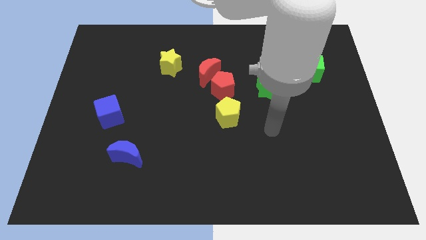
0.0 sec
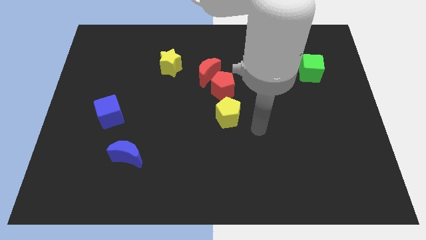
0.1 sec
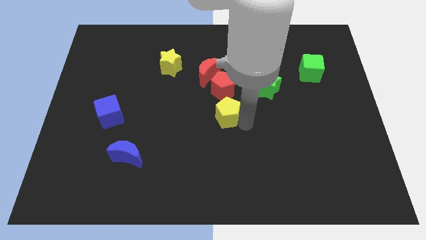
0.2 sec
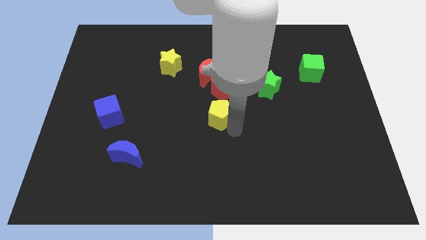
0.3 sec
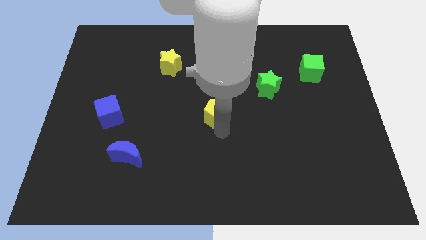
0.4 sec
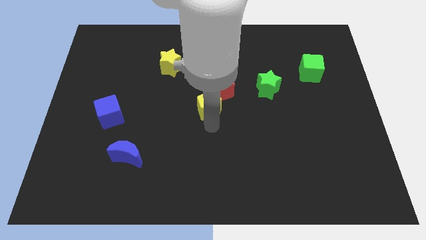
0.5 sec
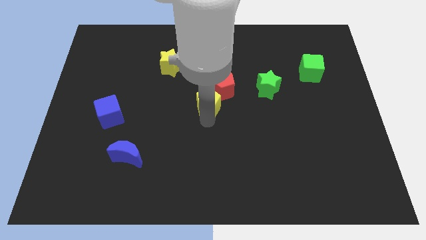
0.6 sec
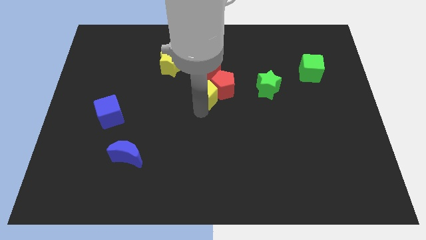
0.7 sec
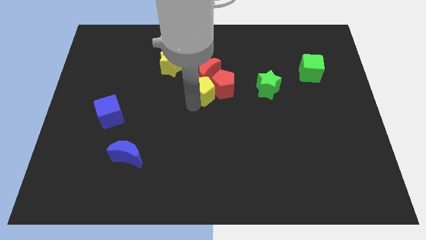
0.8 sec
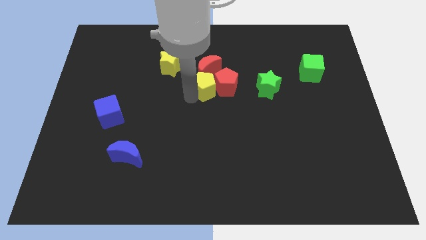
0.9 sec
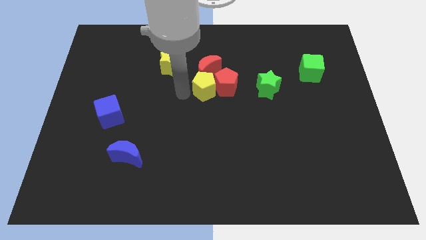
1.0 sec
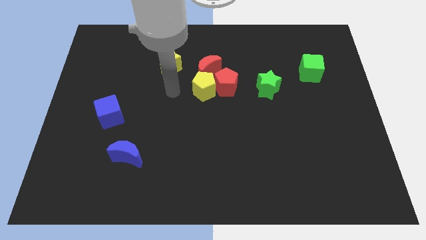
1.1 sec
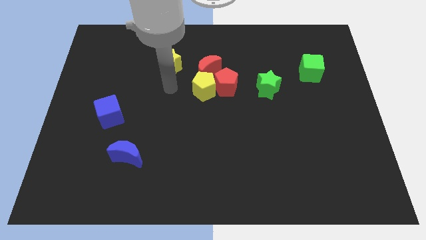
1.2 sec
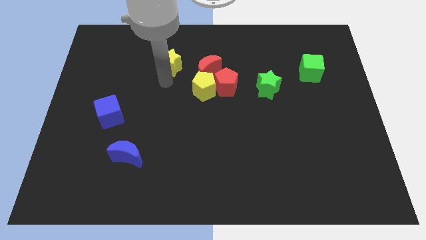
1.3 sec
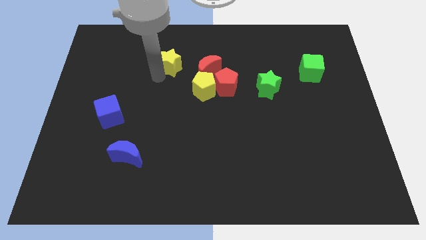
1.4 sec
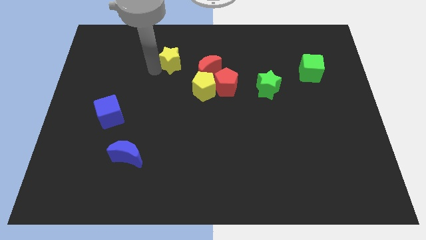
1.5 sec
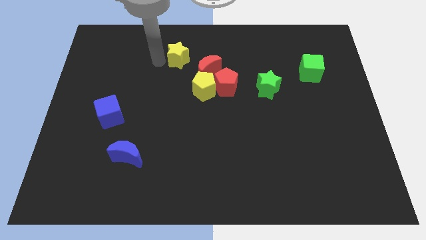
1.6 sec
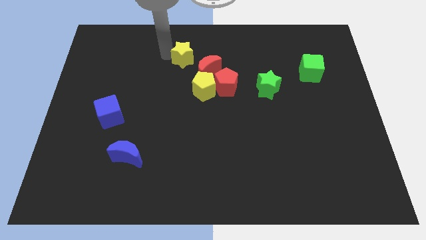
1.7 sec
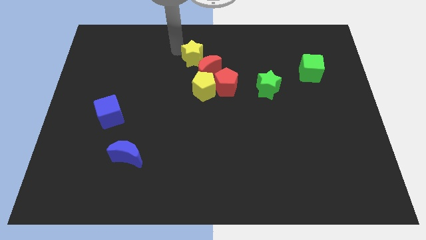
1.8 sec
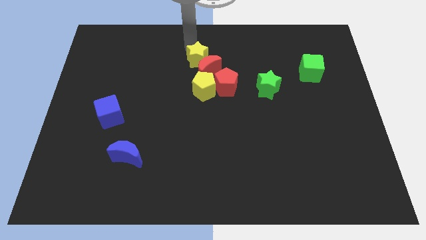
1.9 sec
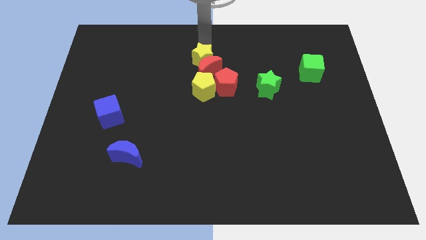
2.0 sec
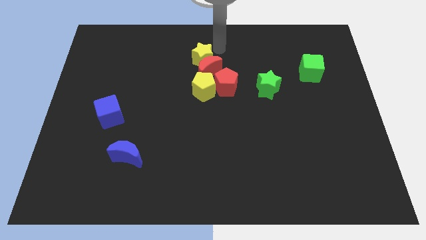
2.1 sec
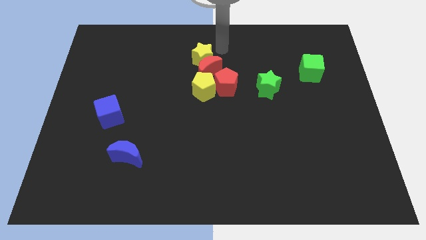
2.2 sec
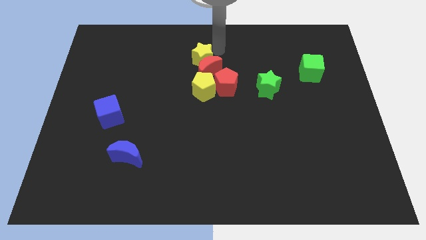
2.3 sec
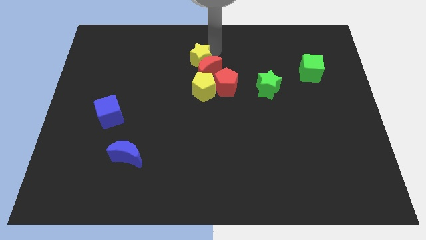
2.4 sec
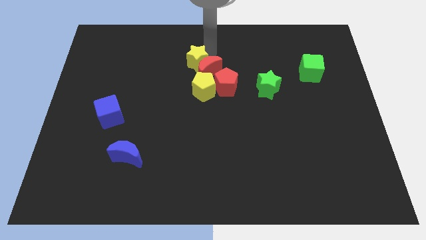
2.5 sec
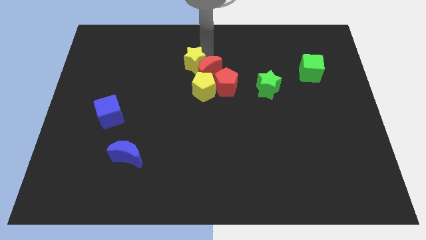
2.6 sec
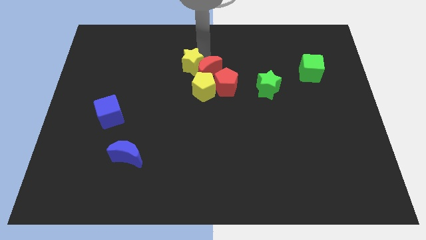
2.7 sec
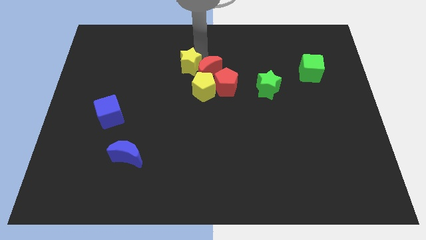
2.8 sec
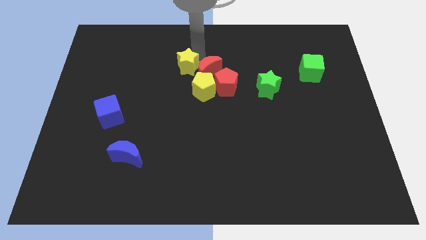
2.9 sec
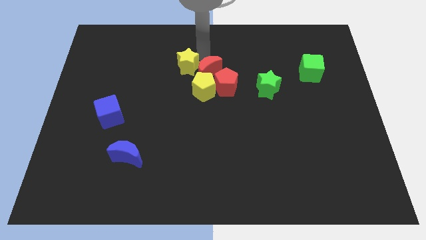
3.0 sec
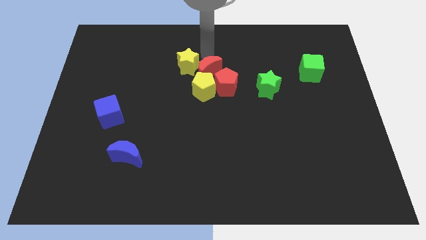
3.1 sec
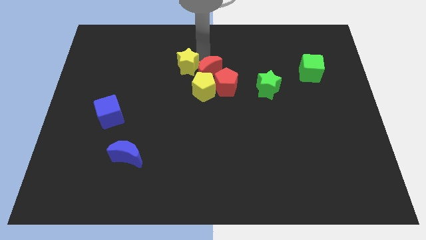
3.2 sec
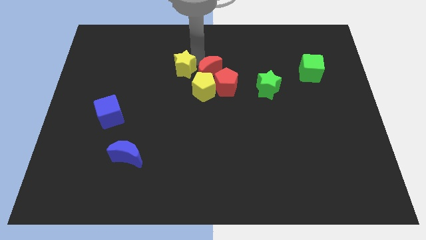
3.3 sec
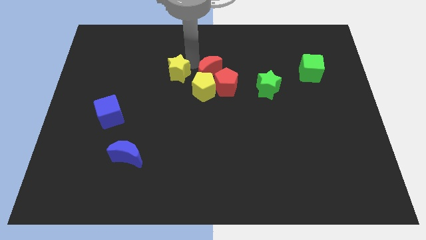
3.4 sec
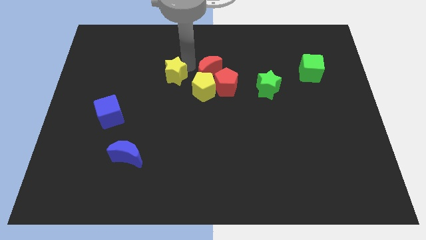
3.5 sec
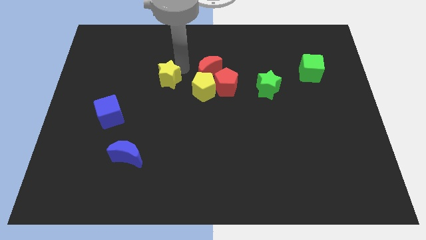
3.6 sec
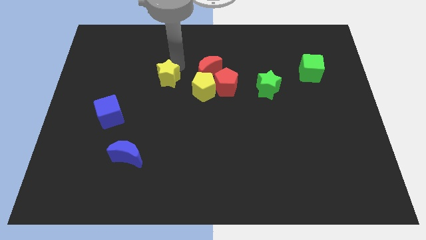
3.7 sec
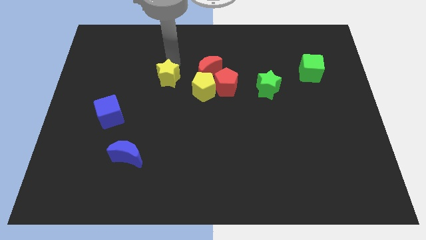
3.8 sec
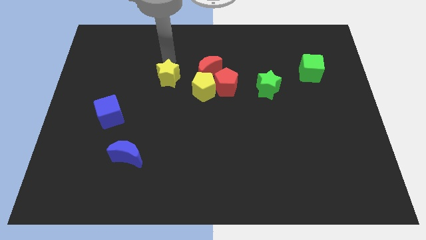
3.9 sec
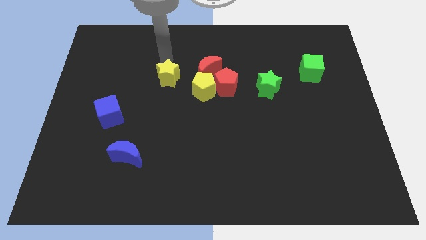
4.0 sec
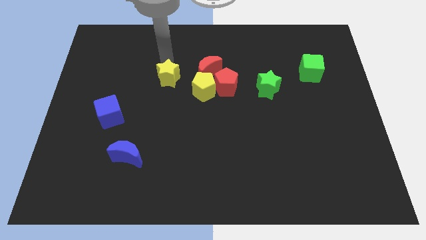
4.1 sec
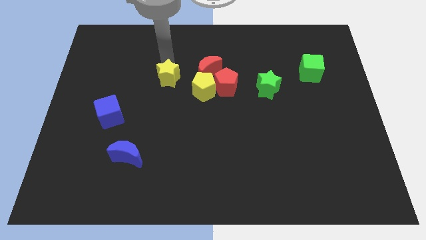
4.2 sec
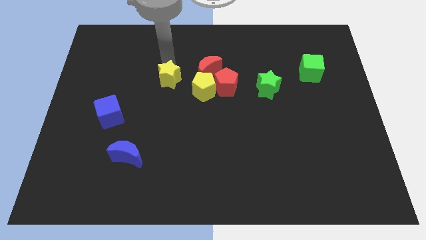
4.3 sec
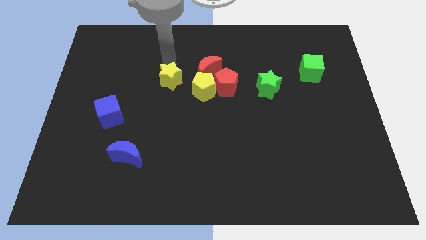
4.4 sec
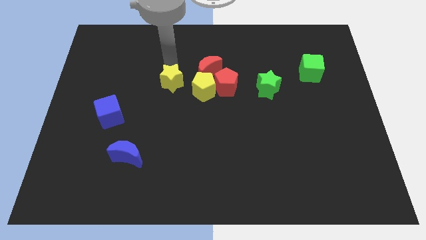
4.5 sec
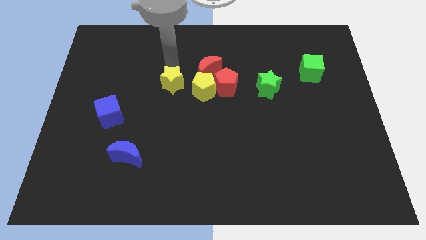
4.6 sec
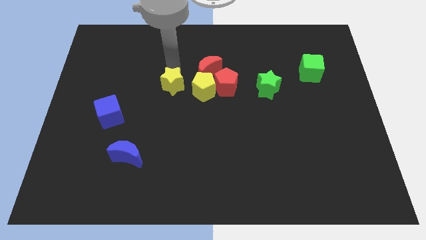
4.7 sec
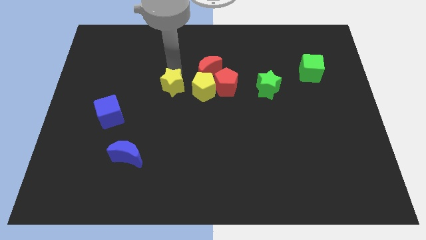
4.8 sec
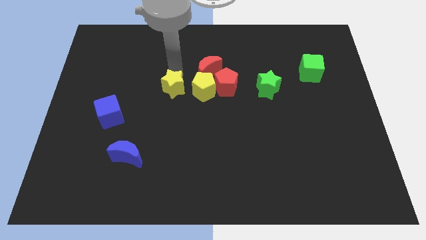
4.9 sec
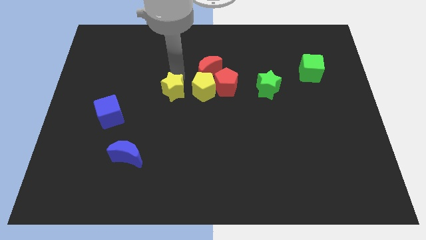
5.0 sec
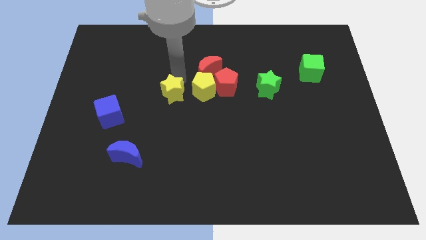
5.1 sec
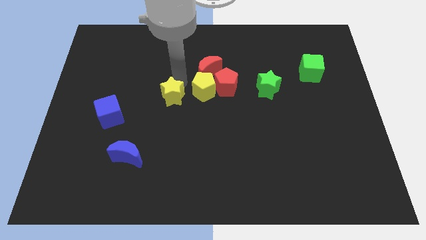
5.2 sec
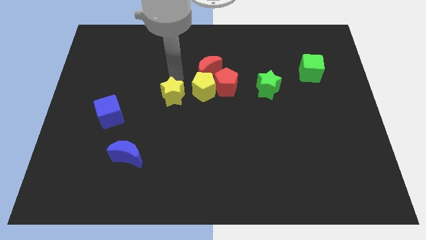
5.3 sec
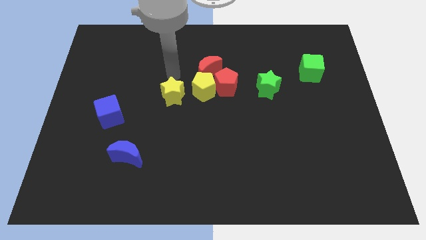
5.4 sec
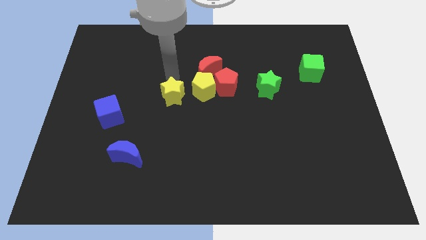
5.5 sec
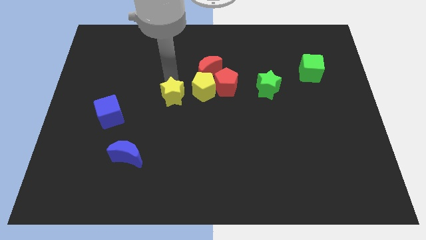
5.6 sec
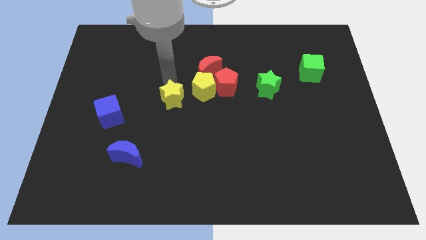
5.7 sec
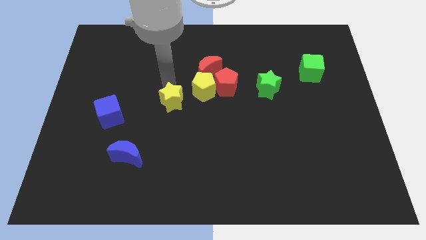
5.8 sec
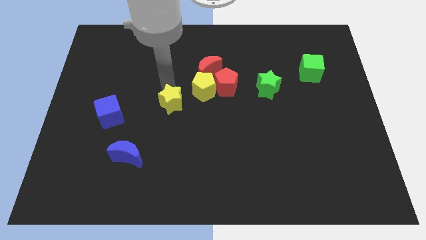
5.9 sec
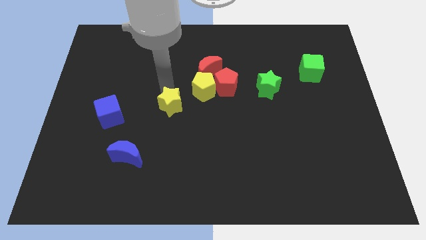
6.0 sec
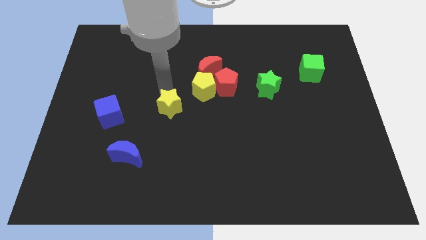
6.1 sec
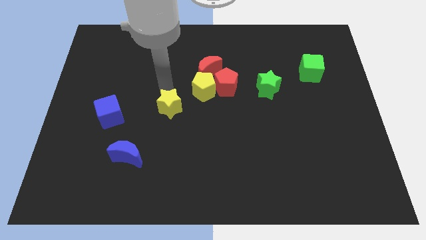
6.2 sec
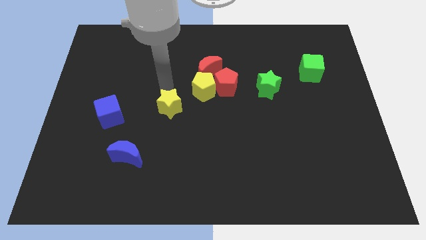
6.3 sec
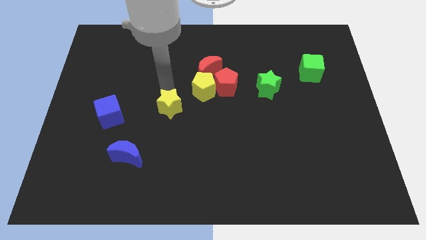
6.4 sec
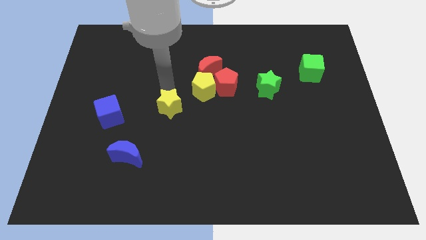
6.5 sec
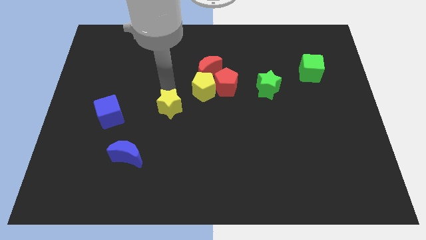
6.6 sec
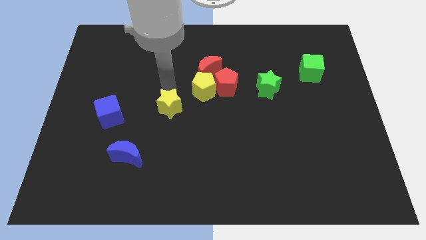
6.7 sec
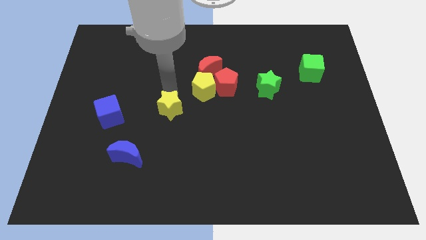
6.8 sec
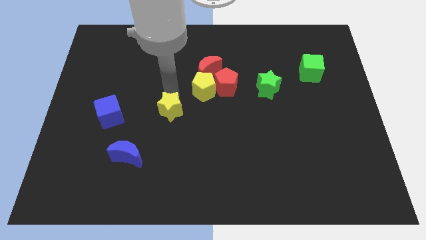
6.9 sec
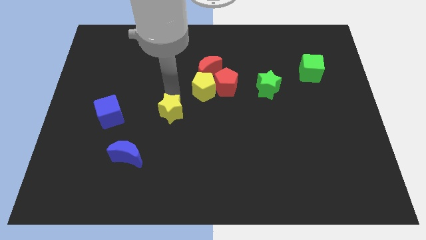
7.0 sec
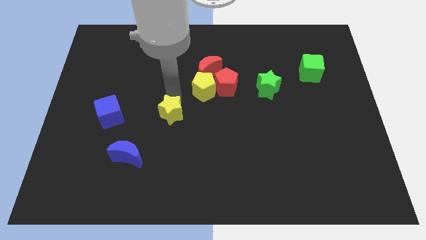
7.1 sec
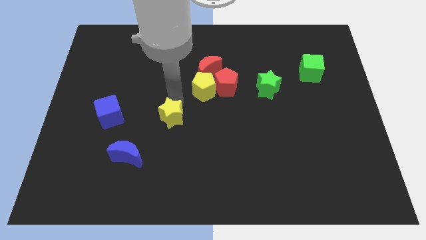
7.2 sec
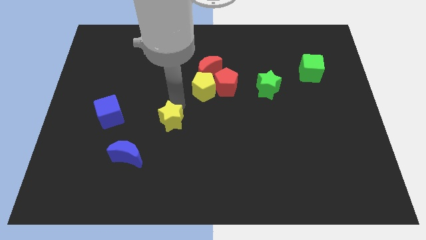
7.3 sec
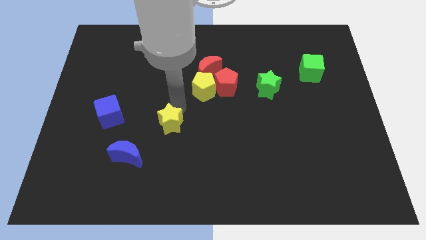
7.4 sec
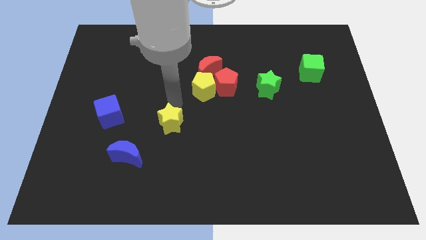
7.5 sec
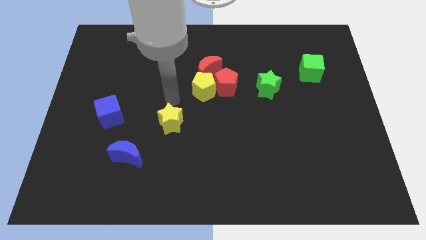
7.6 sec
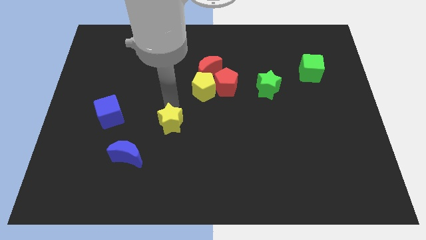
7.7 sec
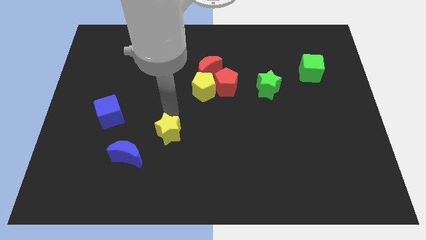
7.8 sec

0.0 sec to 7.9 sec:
move the yellow star down
